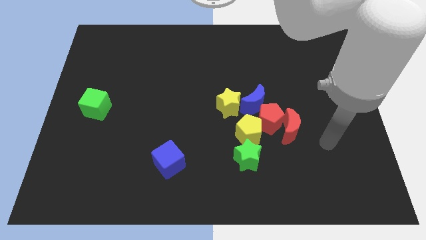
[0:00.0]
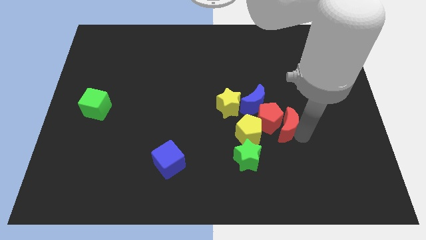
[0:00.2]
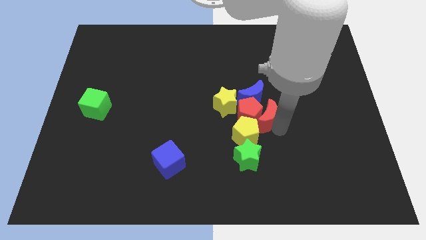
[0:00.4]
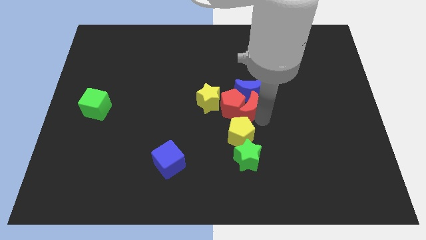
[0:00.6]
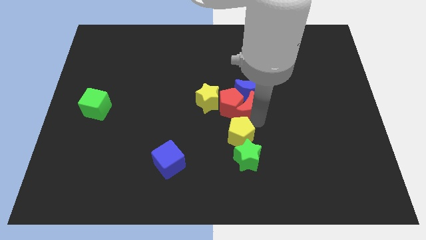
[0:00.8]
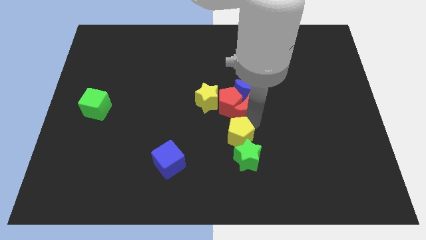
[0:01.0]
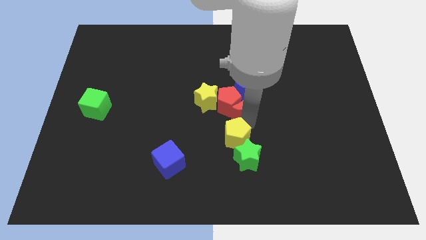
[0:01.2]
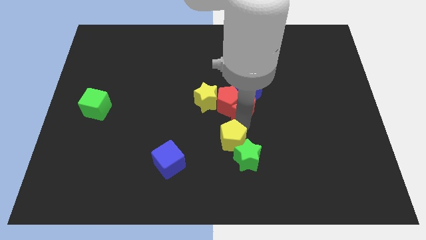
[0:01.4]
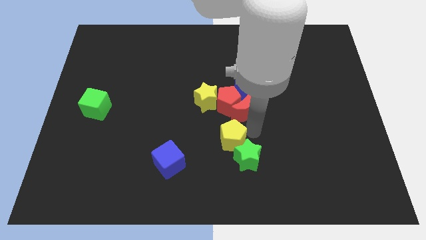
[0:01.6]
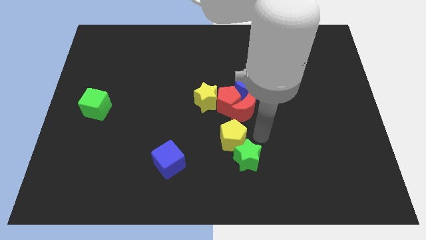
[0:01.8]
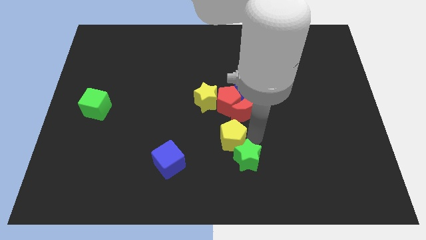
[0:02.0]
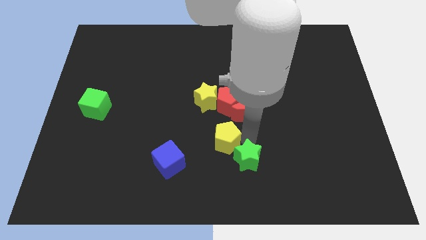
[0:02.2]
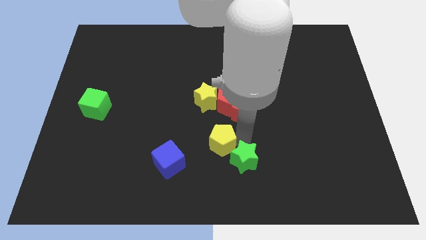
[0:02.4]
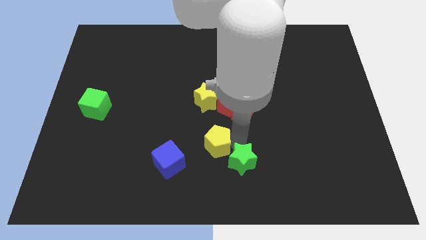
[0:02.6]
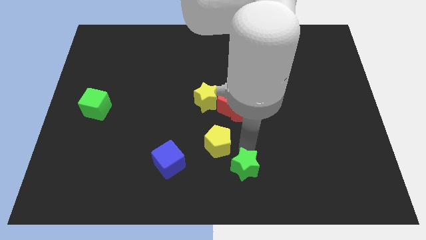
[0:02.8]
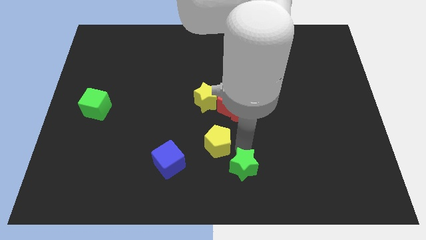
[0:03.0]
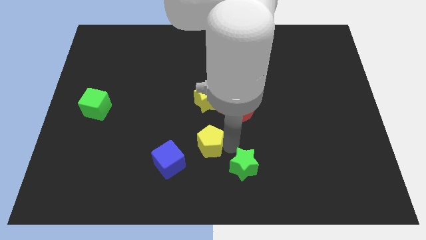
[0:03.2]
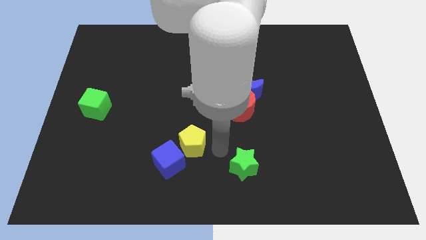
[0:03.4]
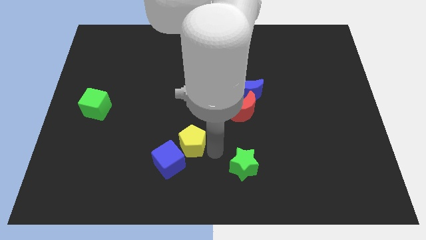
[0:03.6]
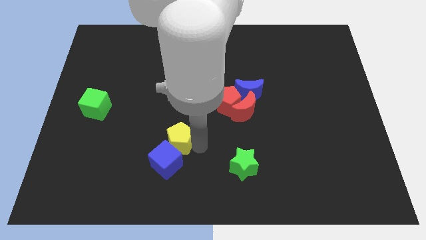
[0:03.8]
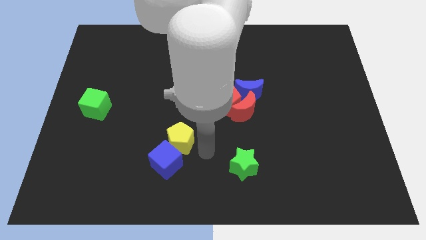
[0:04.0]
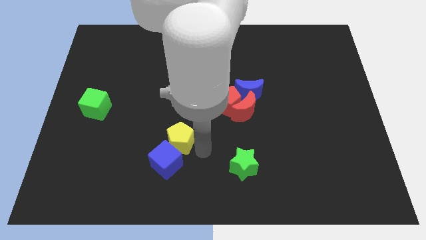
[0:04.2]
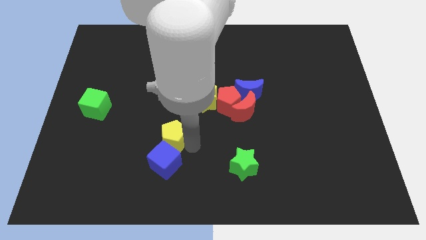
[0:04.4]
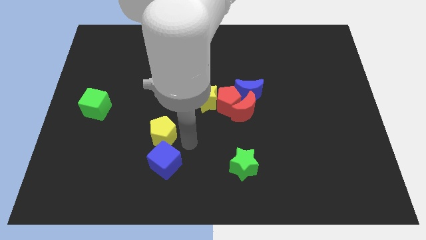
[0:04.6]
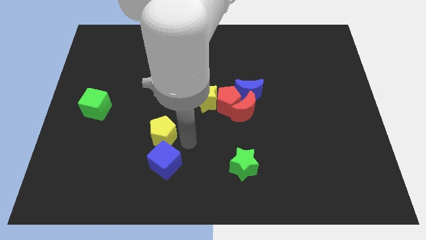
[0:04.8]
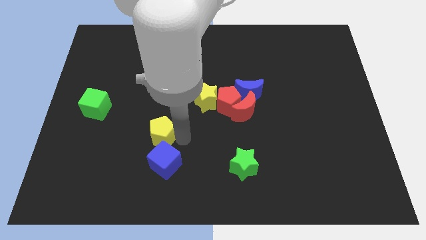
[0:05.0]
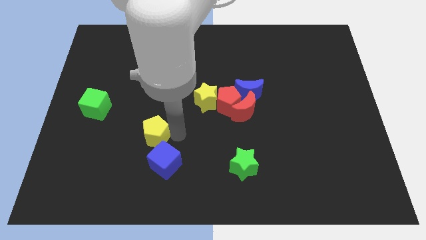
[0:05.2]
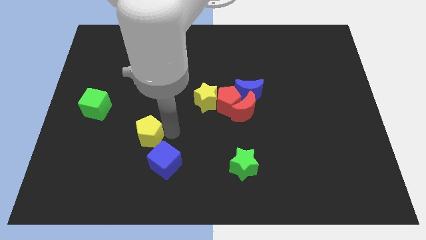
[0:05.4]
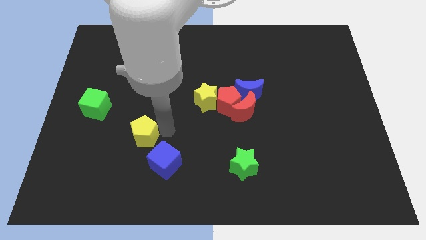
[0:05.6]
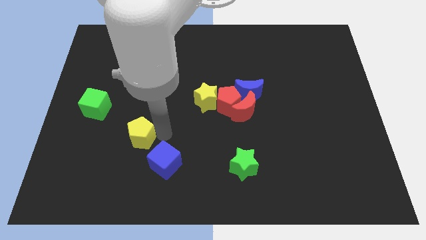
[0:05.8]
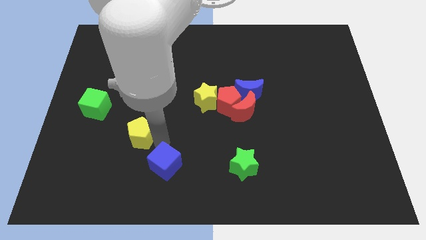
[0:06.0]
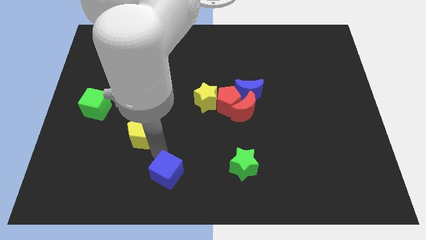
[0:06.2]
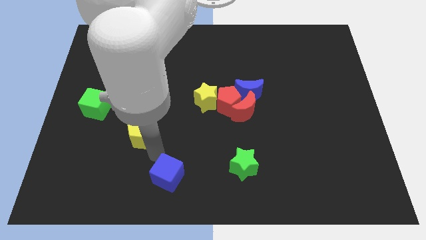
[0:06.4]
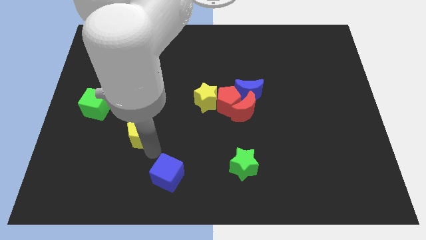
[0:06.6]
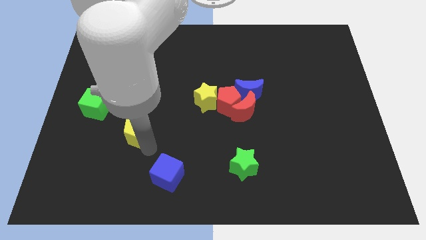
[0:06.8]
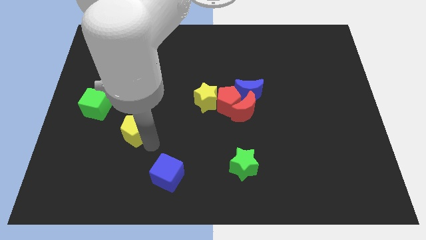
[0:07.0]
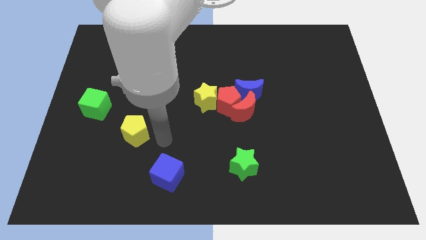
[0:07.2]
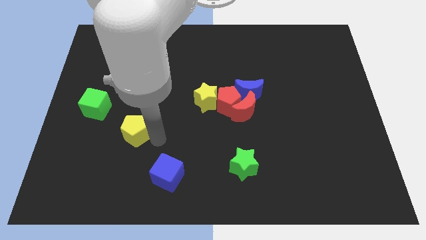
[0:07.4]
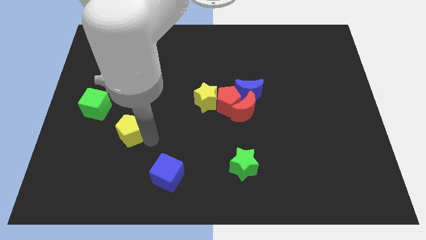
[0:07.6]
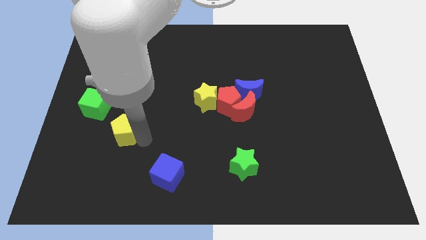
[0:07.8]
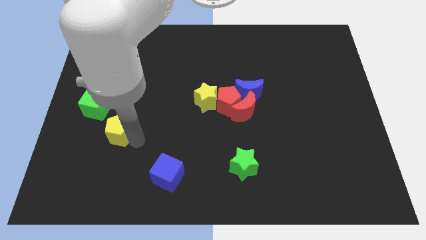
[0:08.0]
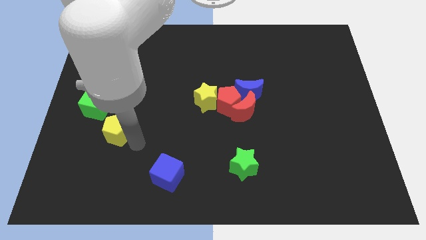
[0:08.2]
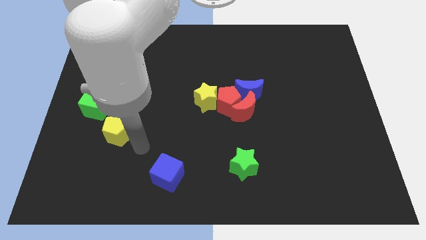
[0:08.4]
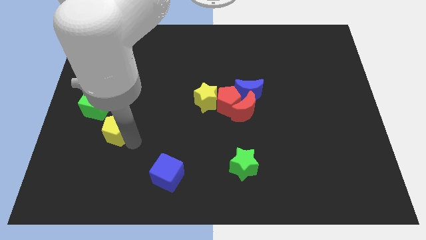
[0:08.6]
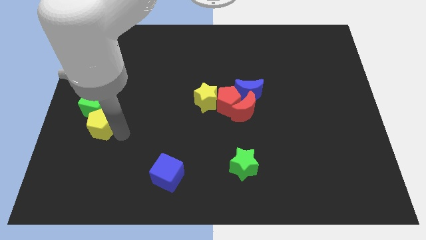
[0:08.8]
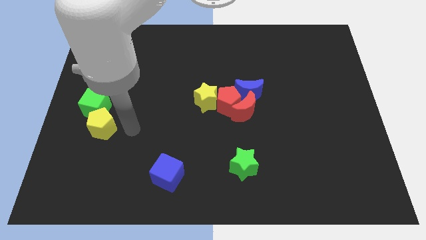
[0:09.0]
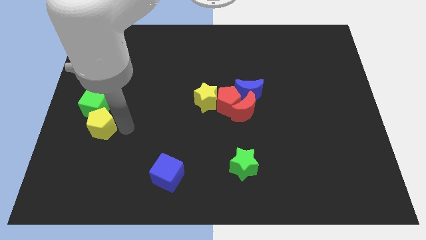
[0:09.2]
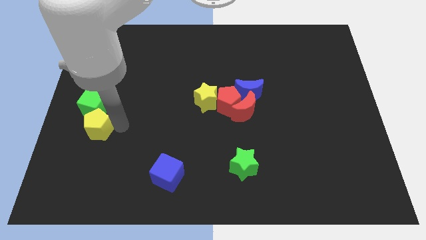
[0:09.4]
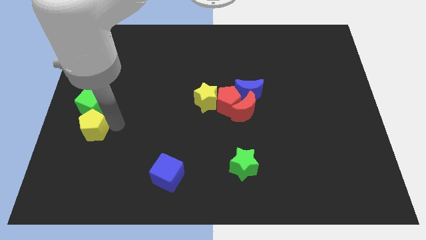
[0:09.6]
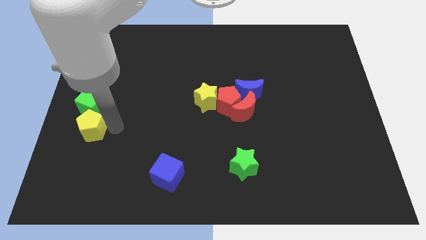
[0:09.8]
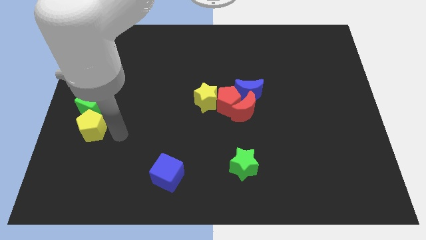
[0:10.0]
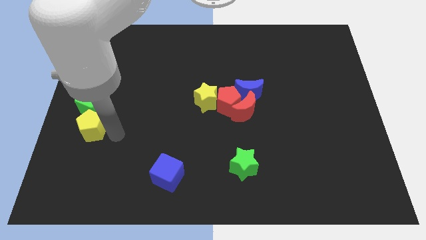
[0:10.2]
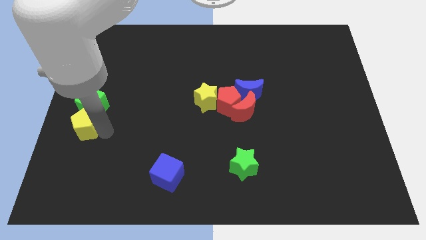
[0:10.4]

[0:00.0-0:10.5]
move the yellow pentagon to the left side of the board

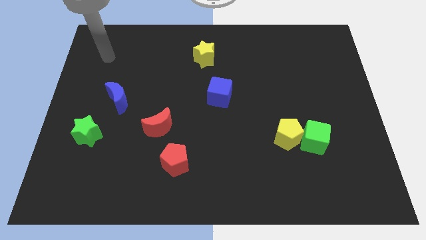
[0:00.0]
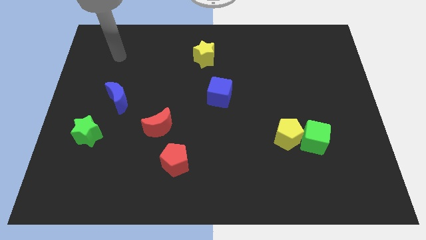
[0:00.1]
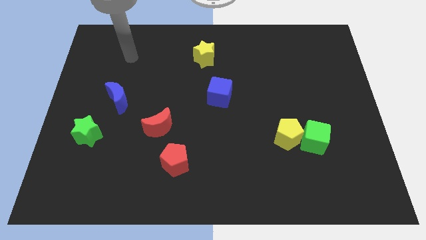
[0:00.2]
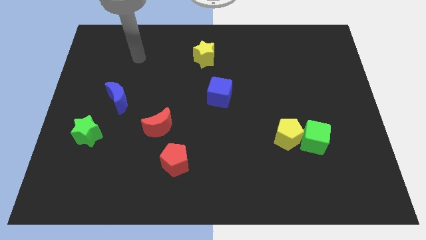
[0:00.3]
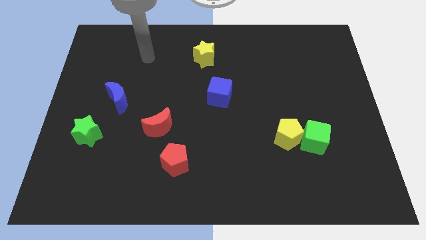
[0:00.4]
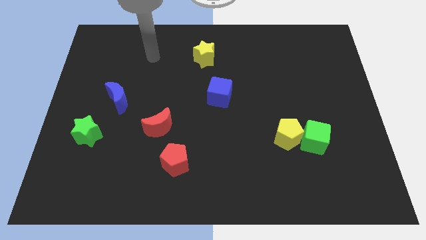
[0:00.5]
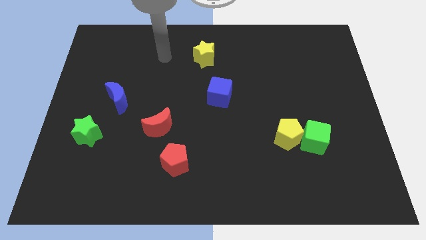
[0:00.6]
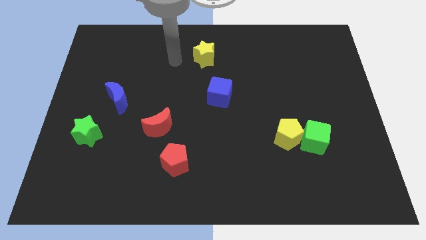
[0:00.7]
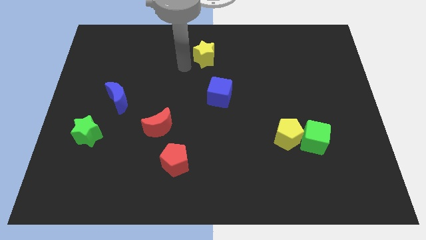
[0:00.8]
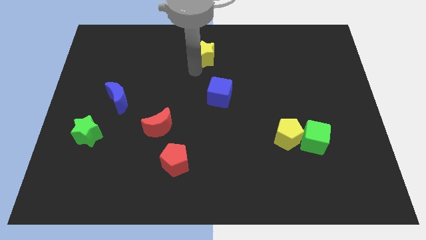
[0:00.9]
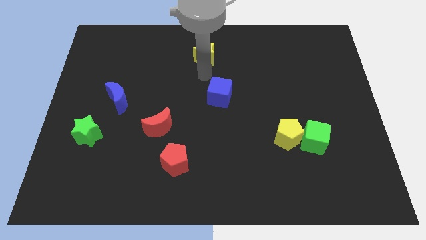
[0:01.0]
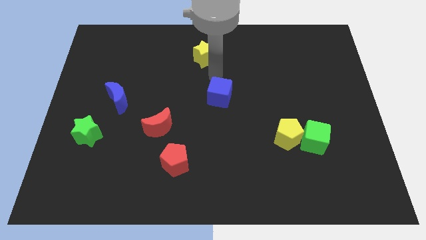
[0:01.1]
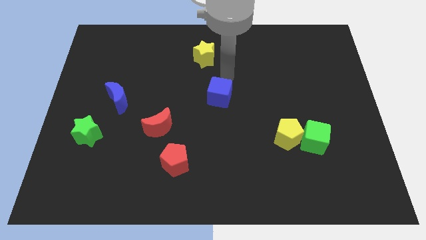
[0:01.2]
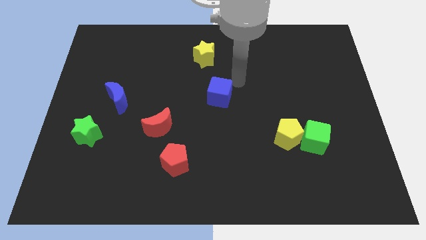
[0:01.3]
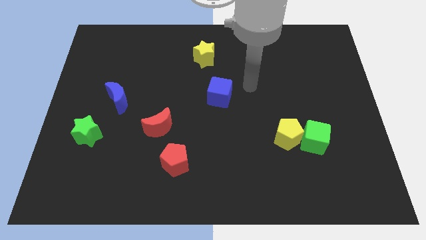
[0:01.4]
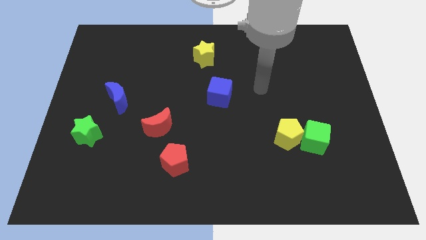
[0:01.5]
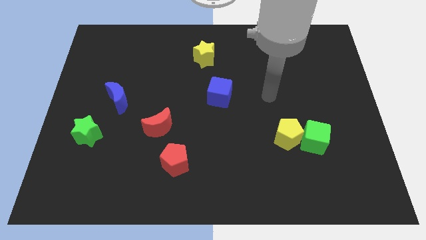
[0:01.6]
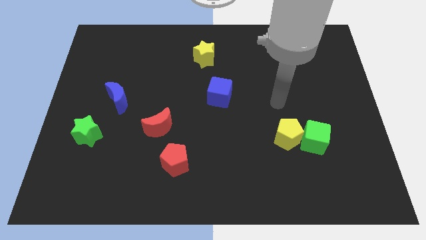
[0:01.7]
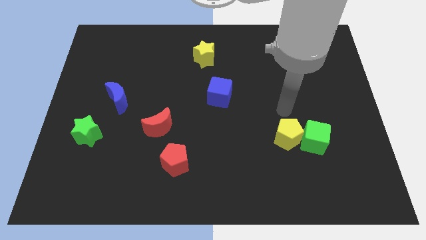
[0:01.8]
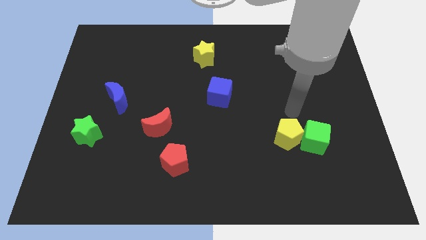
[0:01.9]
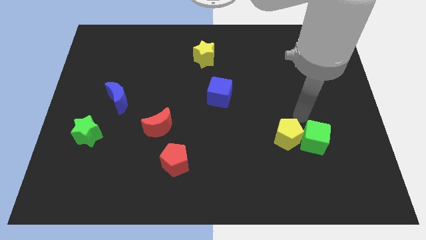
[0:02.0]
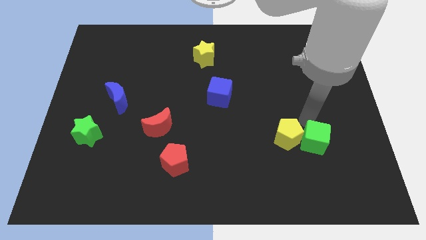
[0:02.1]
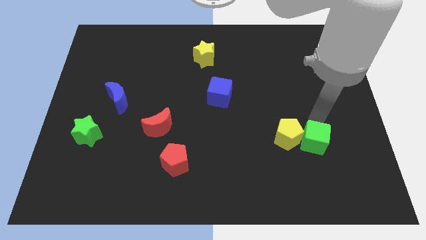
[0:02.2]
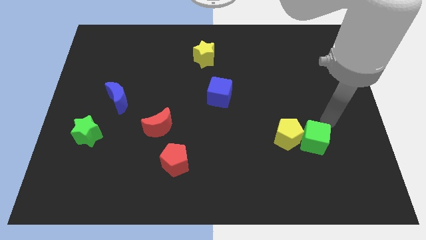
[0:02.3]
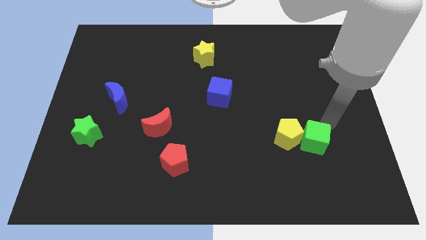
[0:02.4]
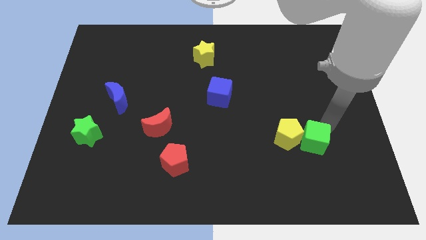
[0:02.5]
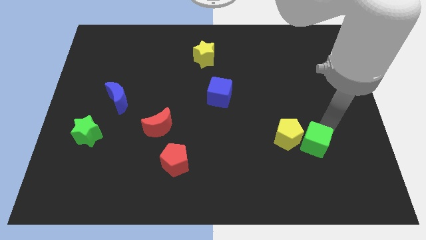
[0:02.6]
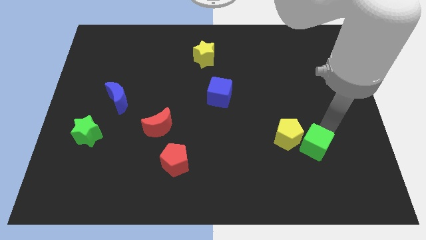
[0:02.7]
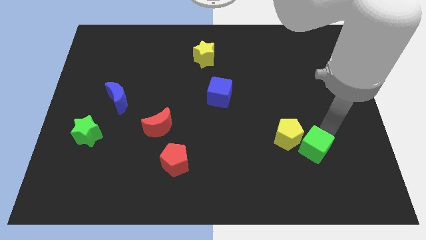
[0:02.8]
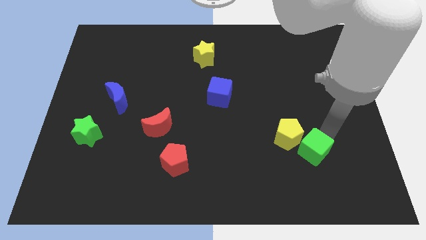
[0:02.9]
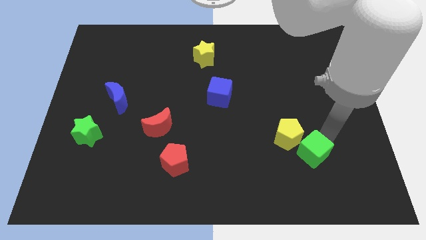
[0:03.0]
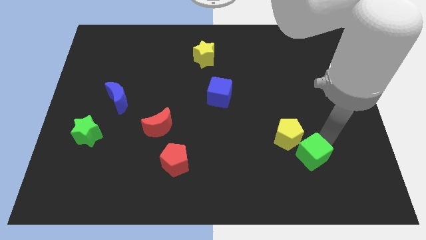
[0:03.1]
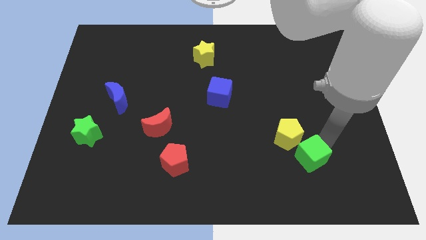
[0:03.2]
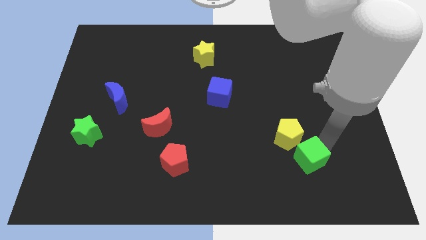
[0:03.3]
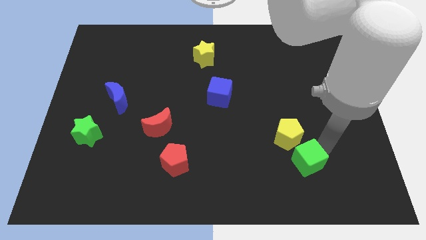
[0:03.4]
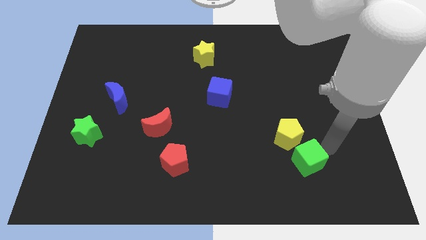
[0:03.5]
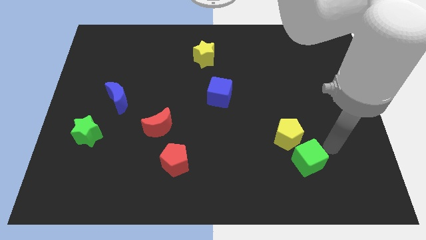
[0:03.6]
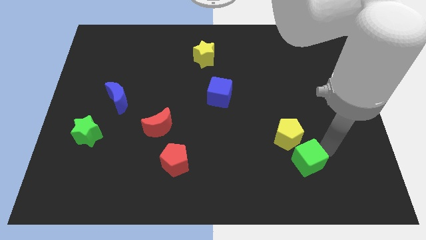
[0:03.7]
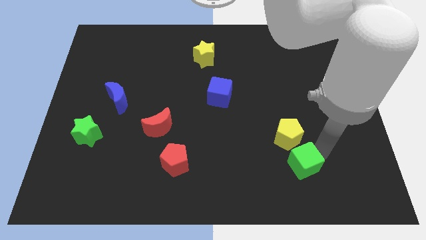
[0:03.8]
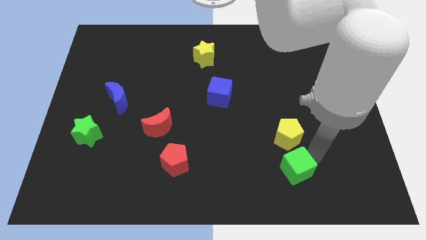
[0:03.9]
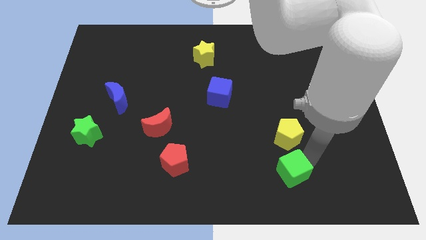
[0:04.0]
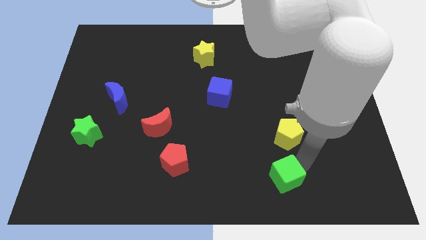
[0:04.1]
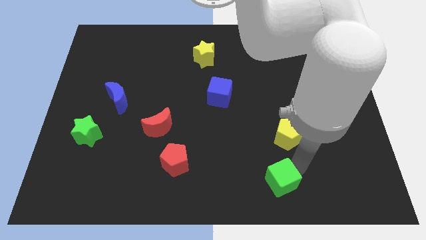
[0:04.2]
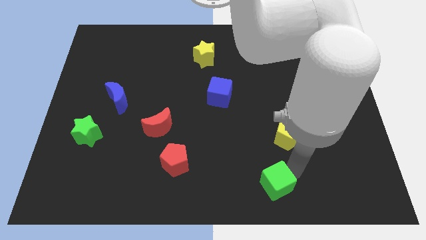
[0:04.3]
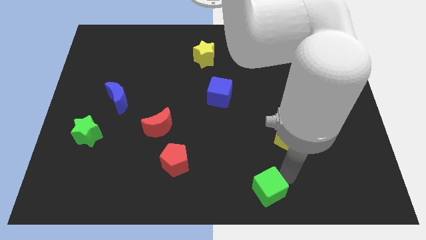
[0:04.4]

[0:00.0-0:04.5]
move the green cube to the bottom
